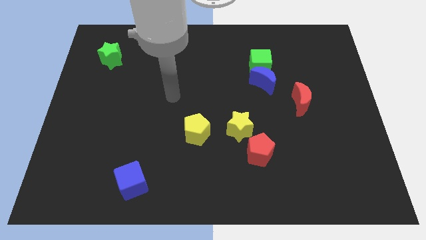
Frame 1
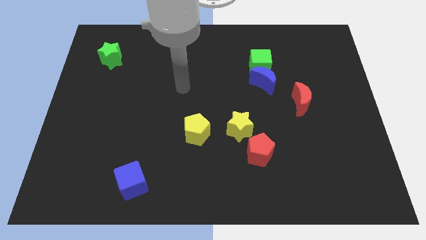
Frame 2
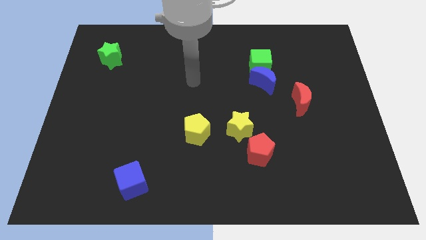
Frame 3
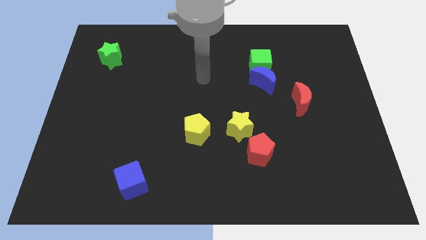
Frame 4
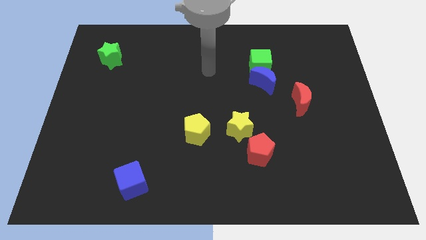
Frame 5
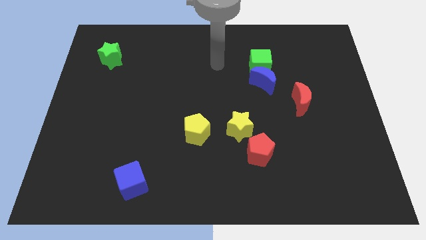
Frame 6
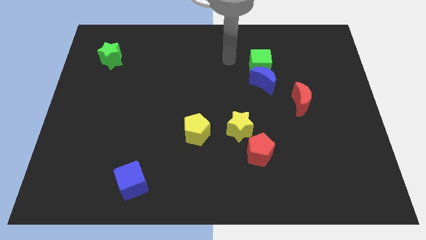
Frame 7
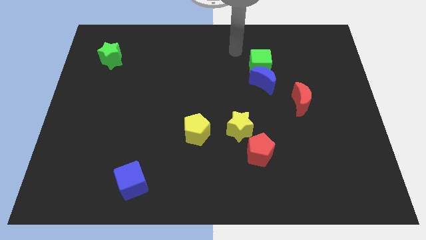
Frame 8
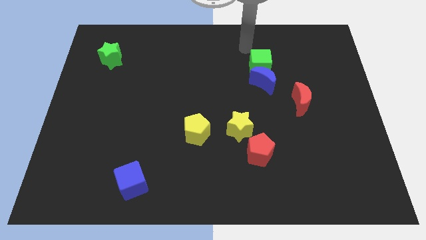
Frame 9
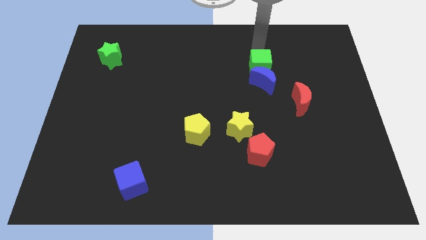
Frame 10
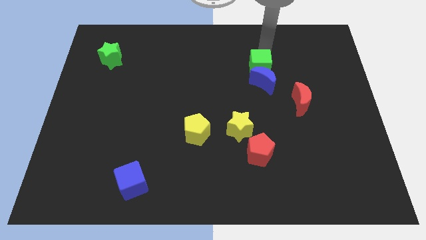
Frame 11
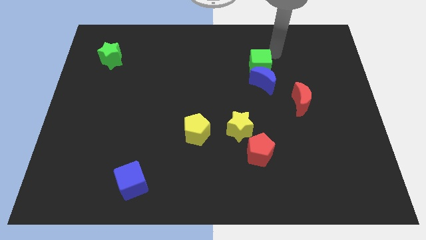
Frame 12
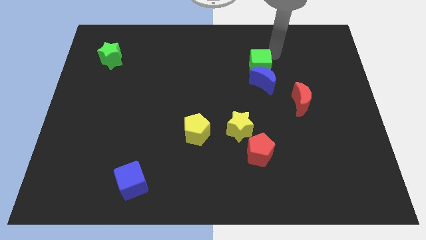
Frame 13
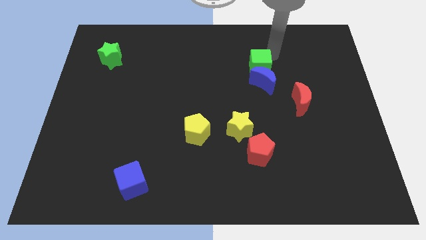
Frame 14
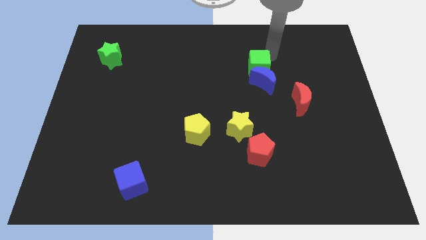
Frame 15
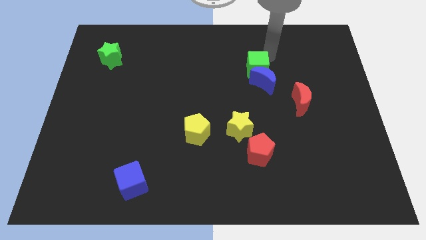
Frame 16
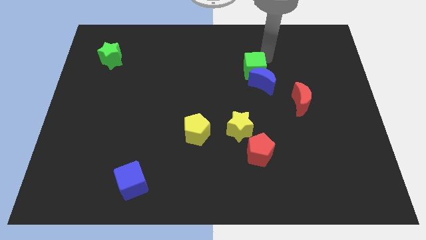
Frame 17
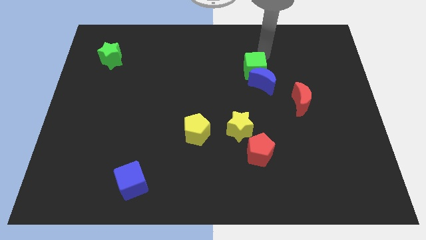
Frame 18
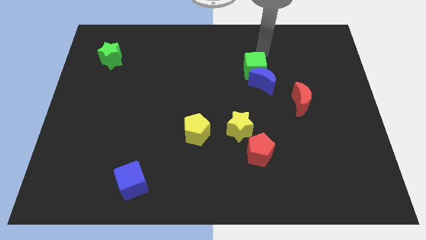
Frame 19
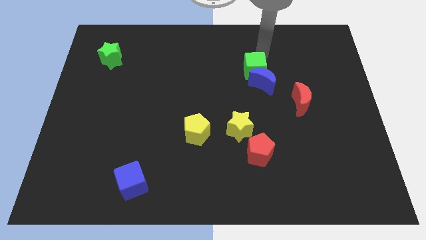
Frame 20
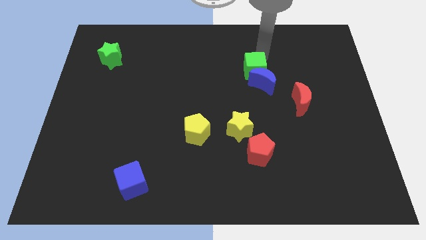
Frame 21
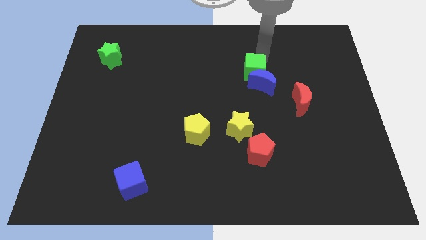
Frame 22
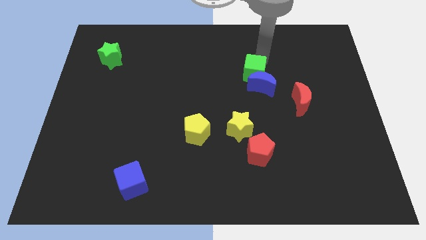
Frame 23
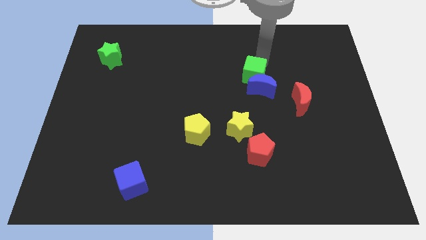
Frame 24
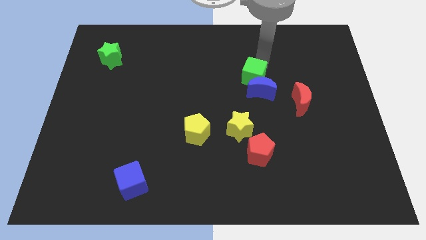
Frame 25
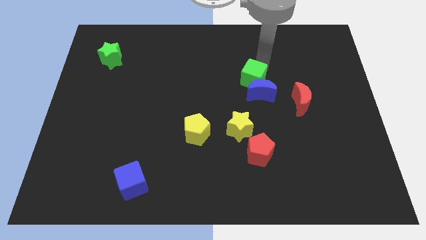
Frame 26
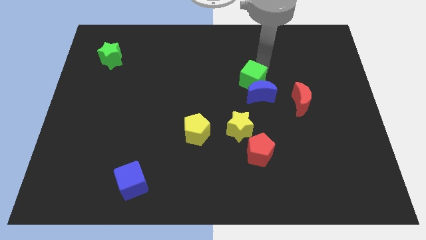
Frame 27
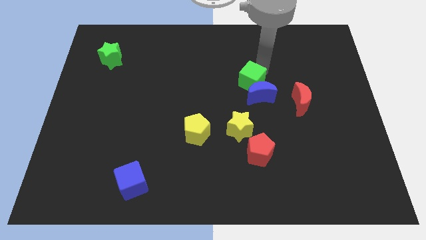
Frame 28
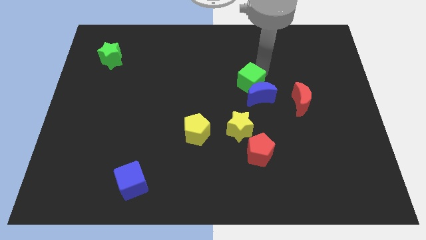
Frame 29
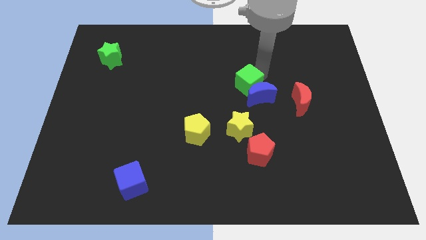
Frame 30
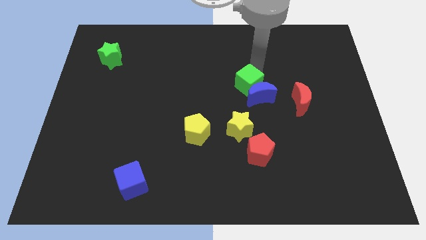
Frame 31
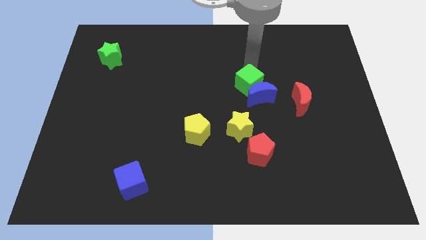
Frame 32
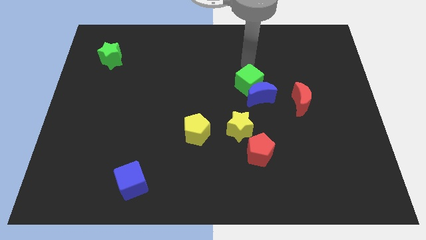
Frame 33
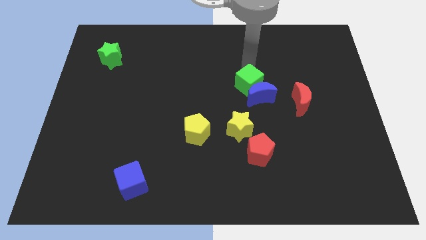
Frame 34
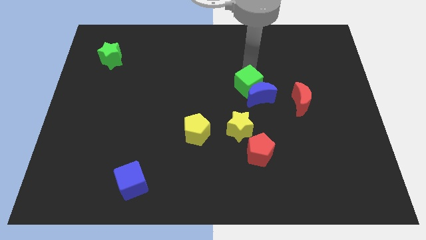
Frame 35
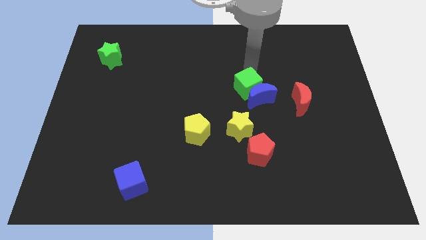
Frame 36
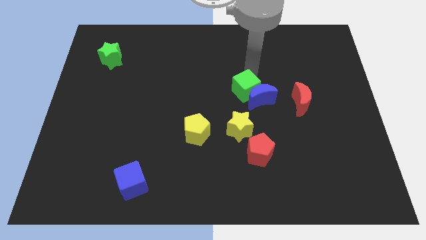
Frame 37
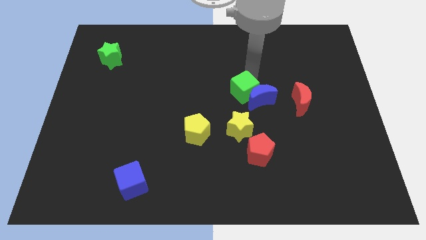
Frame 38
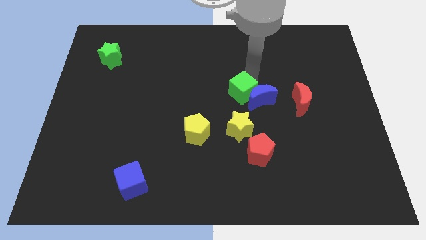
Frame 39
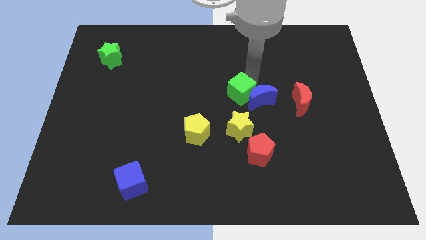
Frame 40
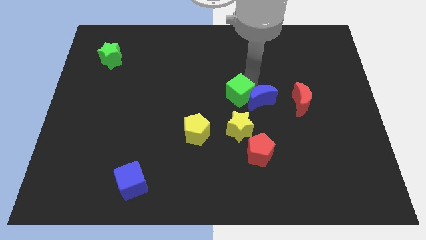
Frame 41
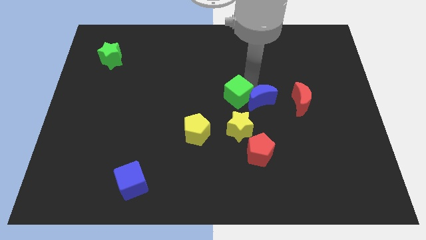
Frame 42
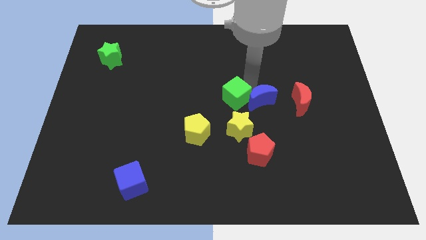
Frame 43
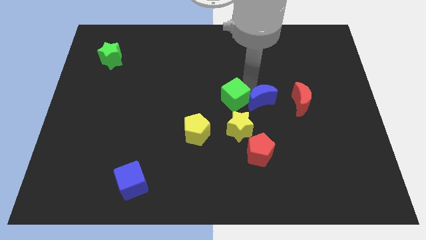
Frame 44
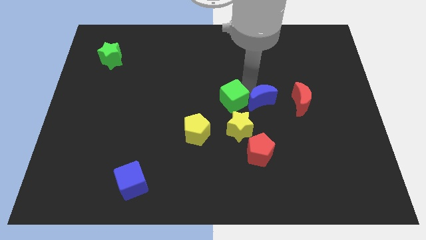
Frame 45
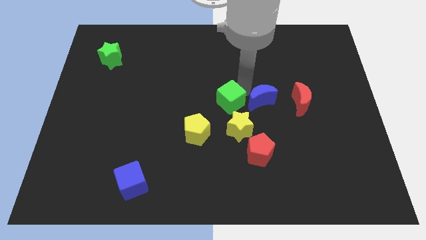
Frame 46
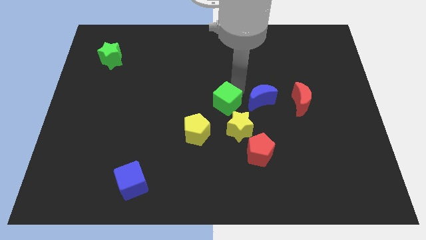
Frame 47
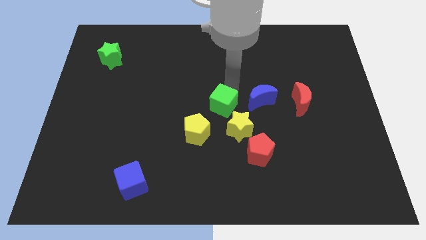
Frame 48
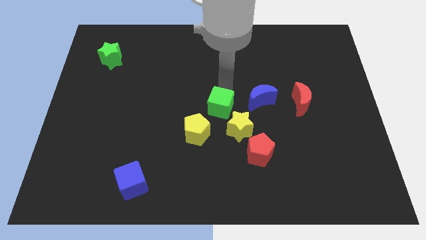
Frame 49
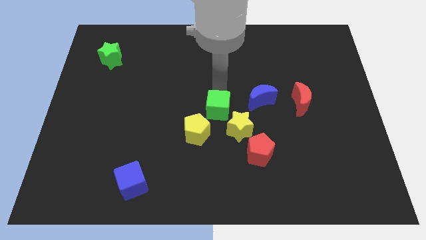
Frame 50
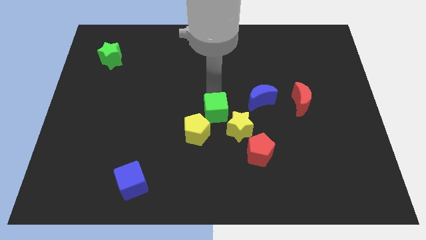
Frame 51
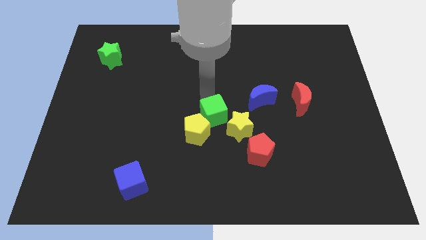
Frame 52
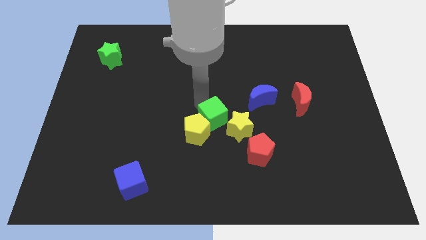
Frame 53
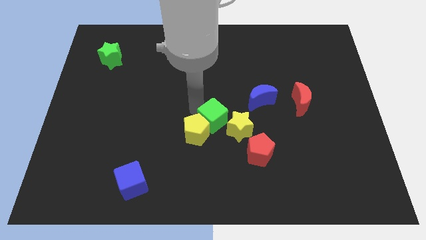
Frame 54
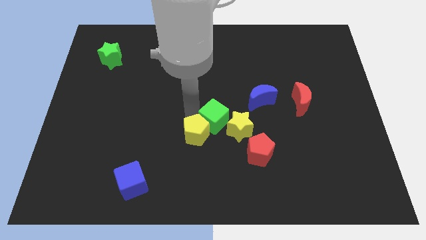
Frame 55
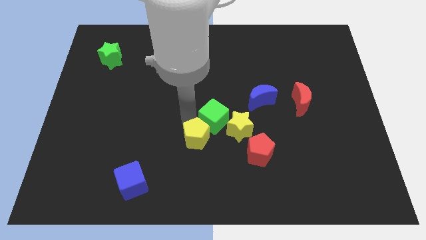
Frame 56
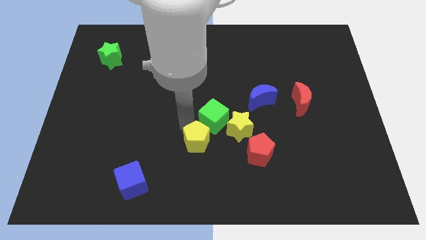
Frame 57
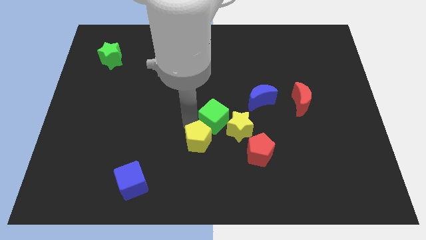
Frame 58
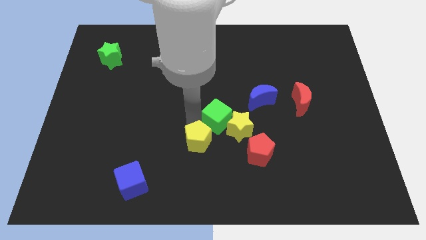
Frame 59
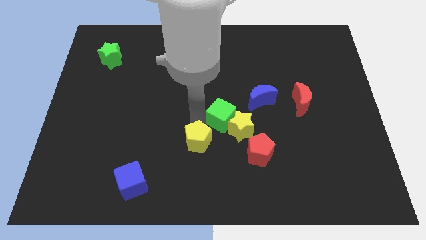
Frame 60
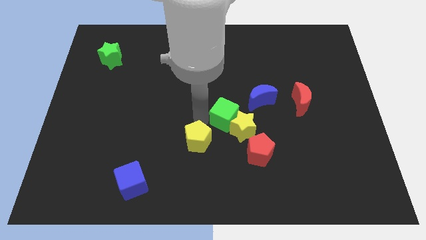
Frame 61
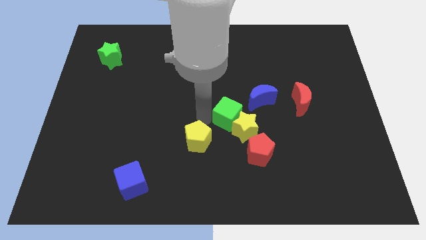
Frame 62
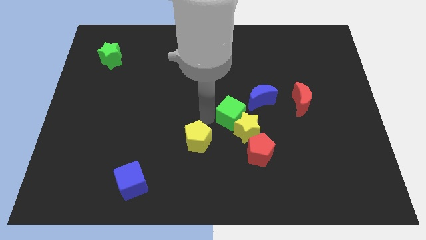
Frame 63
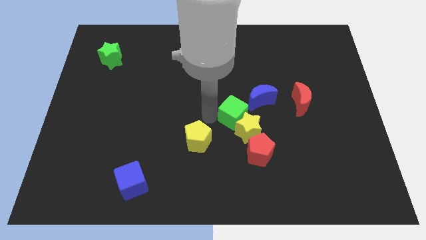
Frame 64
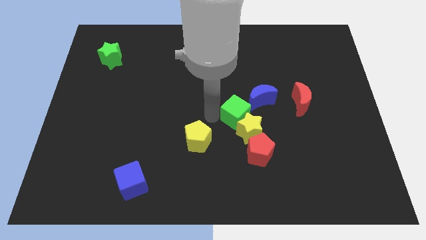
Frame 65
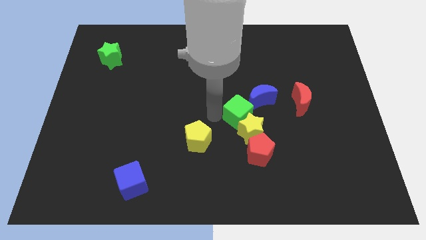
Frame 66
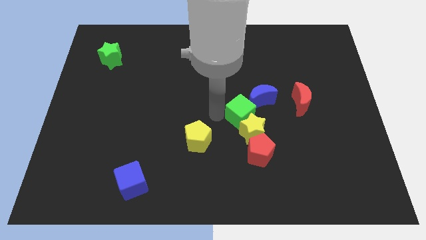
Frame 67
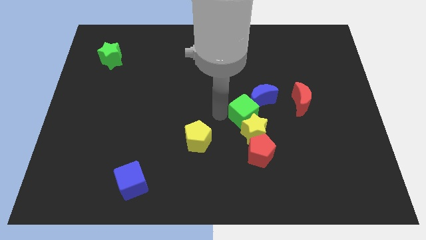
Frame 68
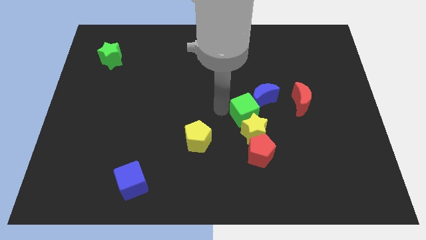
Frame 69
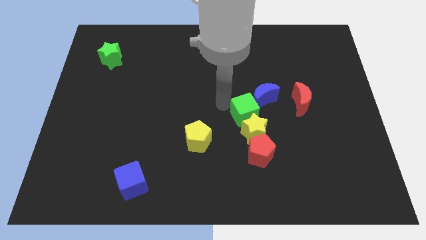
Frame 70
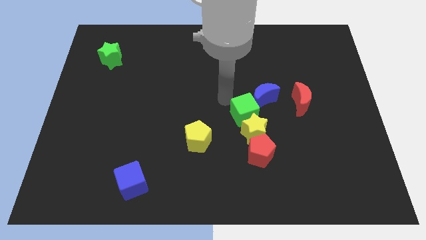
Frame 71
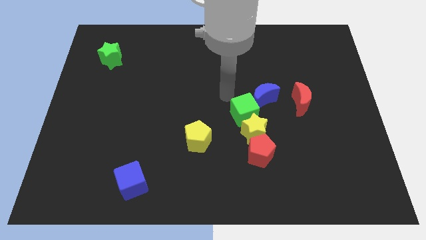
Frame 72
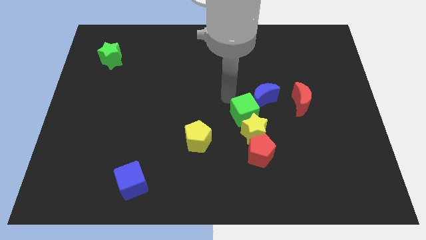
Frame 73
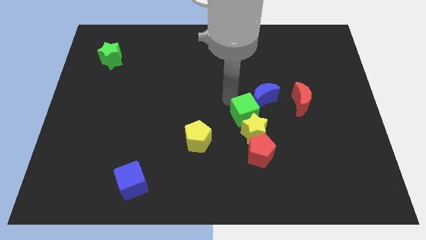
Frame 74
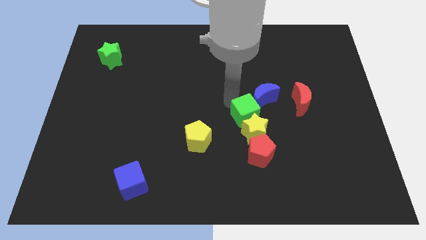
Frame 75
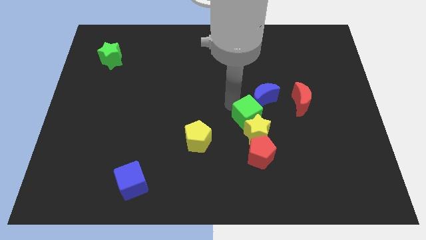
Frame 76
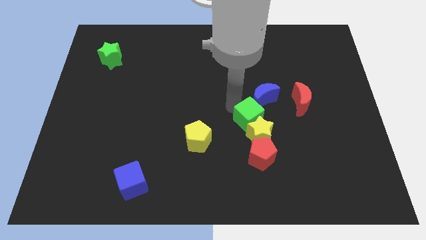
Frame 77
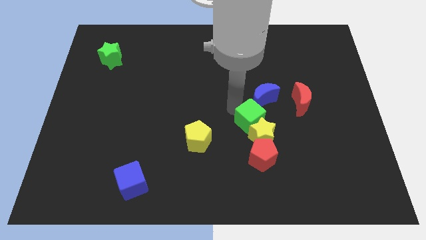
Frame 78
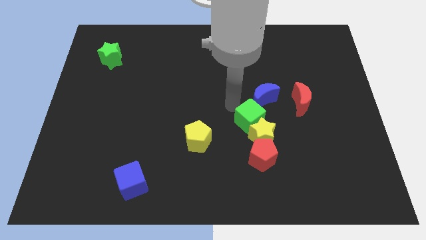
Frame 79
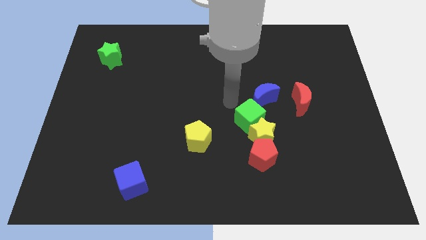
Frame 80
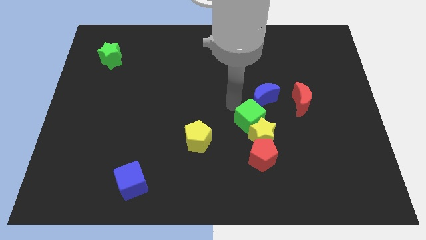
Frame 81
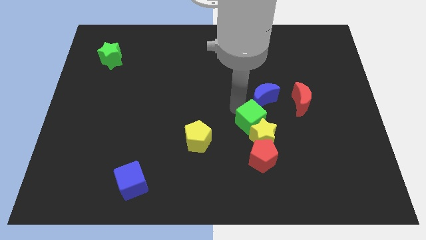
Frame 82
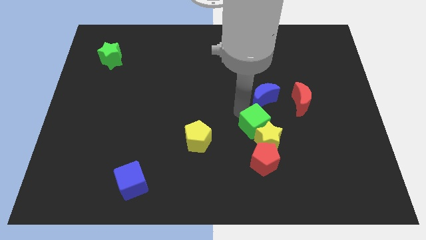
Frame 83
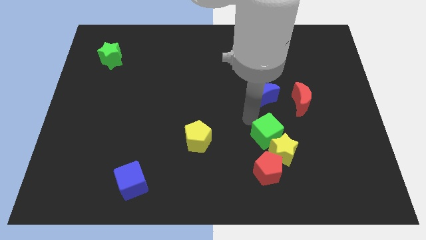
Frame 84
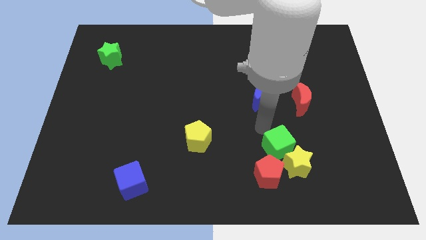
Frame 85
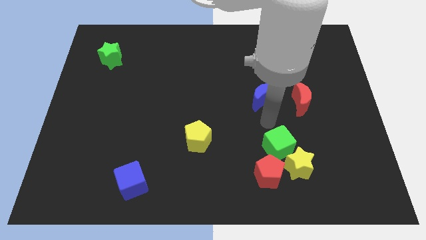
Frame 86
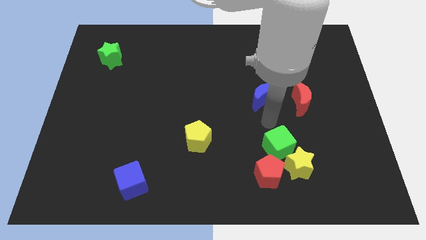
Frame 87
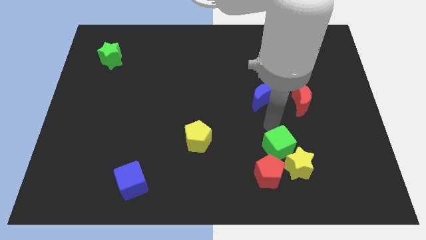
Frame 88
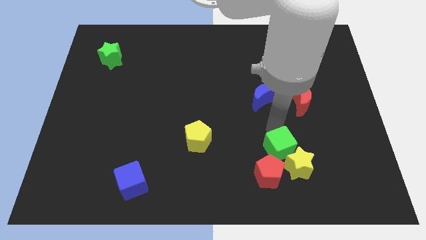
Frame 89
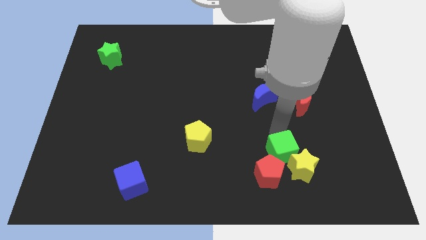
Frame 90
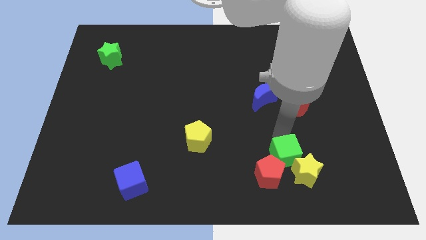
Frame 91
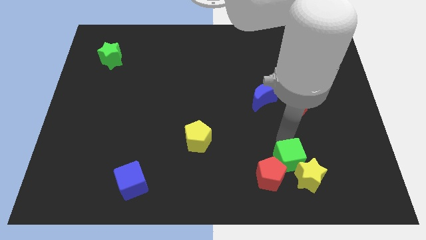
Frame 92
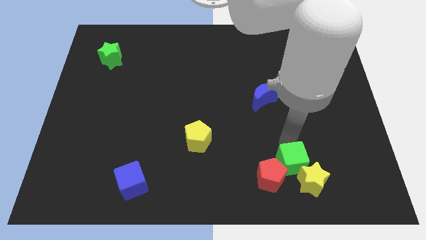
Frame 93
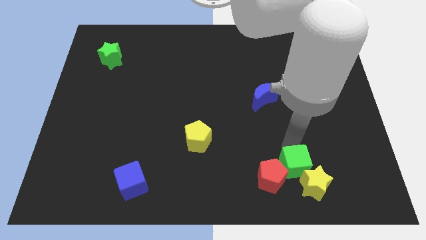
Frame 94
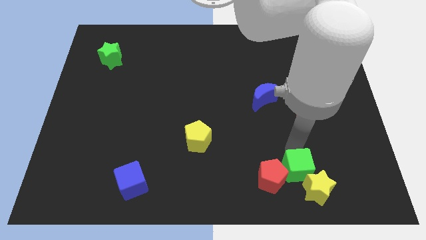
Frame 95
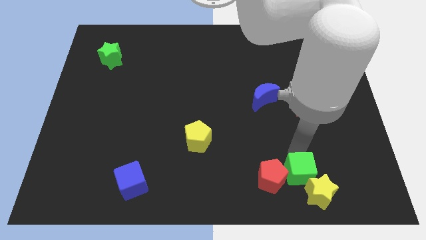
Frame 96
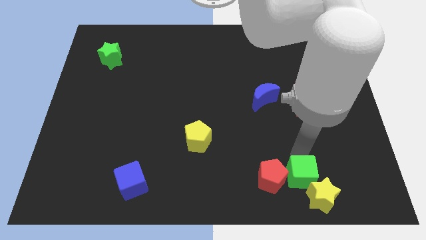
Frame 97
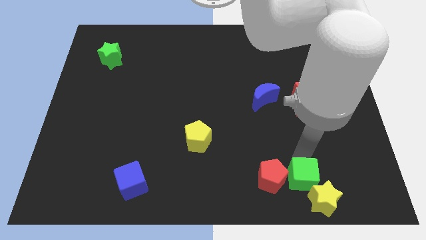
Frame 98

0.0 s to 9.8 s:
move the green cube to the bottom right of the red pentagon
